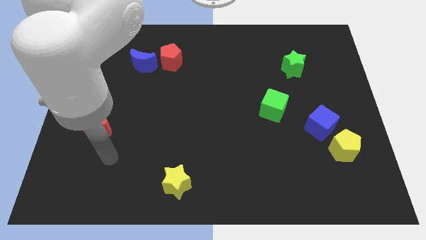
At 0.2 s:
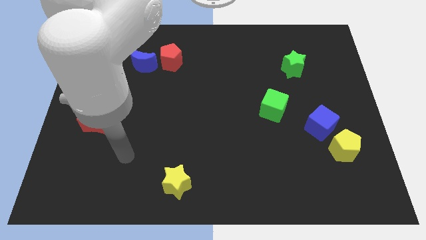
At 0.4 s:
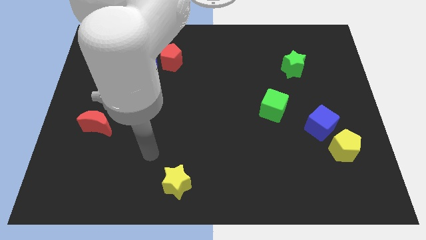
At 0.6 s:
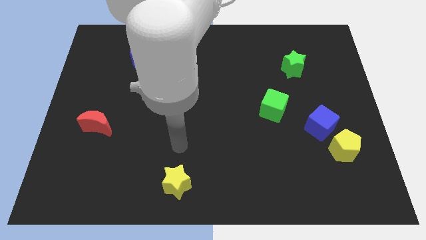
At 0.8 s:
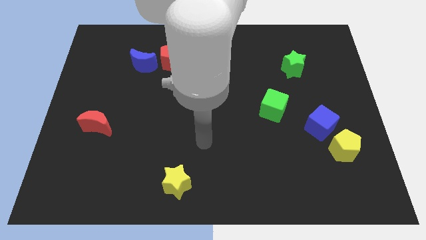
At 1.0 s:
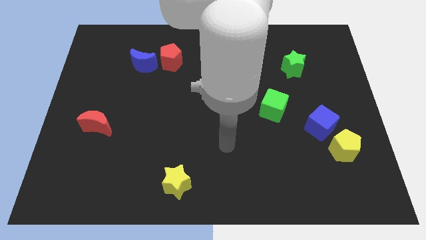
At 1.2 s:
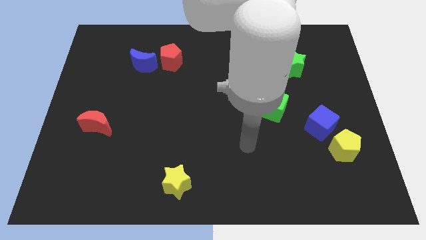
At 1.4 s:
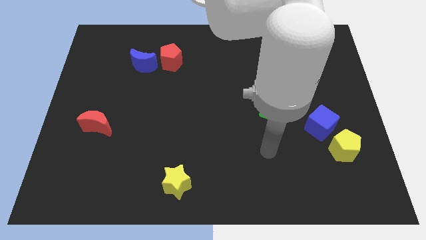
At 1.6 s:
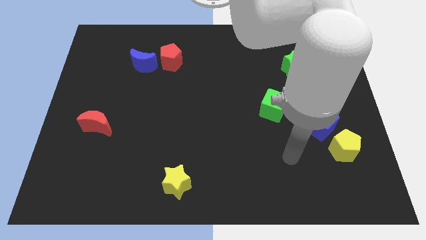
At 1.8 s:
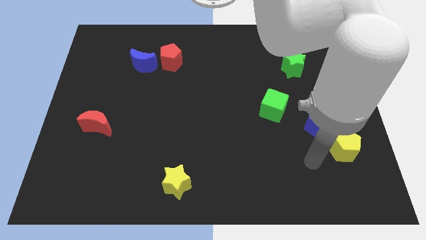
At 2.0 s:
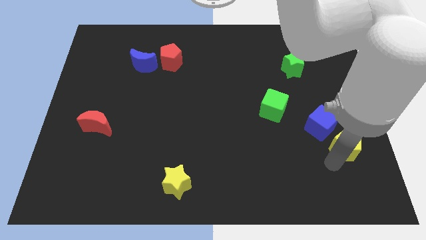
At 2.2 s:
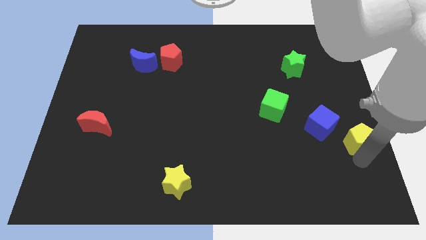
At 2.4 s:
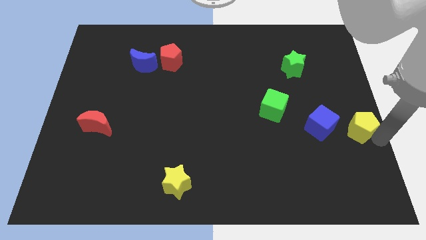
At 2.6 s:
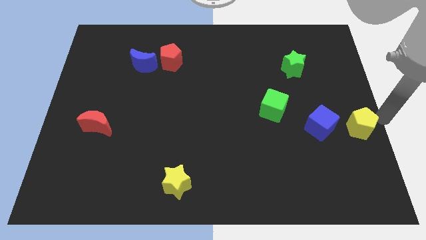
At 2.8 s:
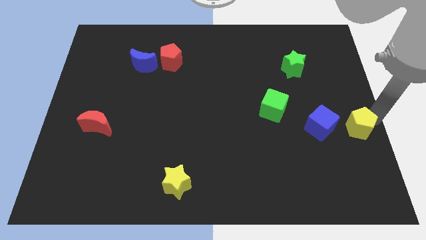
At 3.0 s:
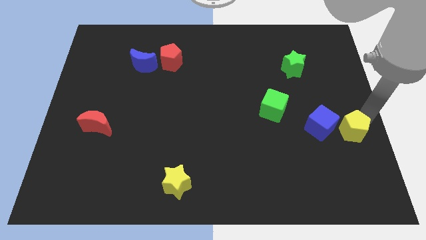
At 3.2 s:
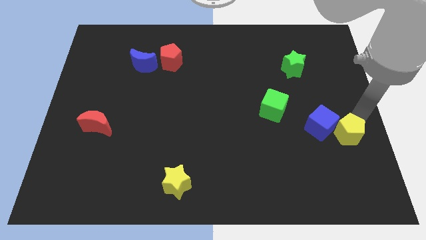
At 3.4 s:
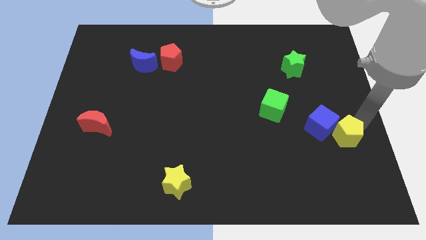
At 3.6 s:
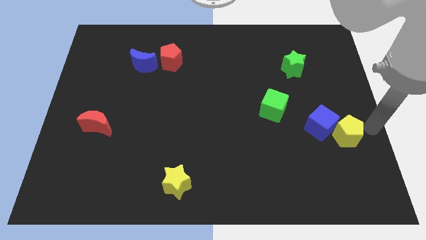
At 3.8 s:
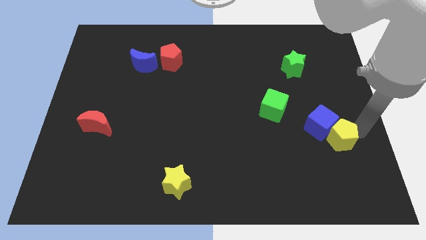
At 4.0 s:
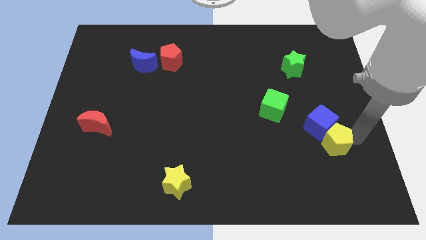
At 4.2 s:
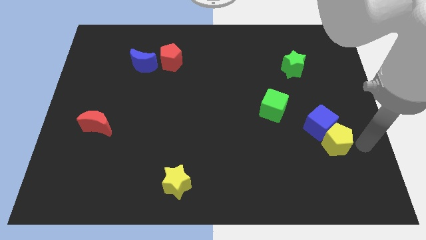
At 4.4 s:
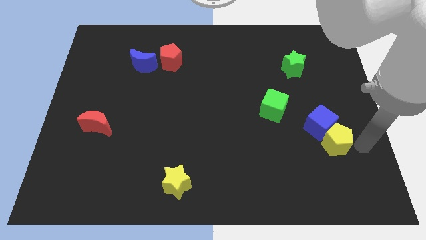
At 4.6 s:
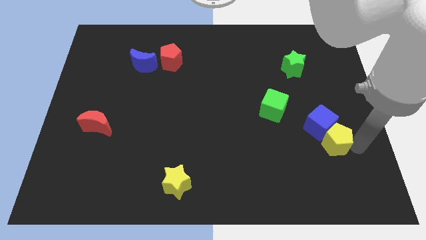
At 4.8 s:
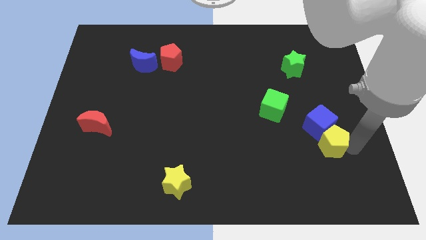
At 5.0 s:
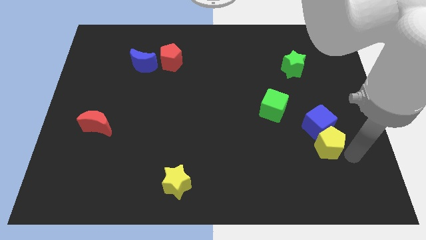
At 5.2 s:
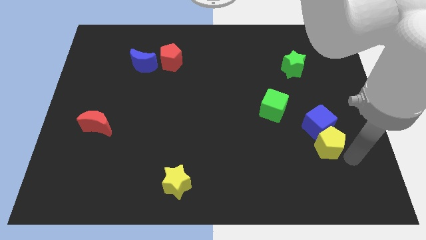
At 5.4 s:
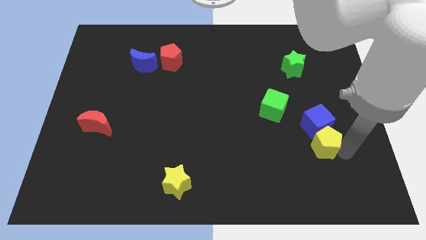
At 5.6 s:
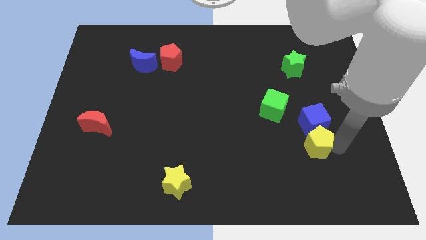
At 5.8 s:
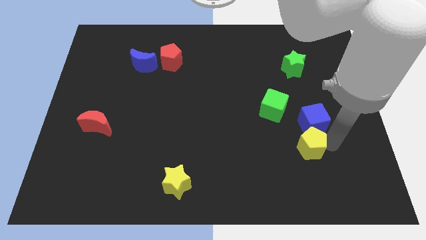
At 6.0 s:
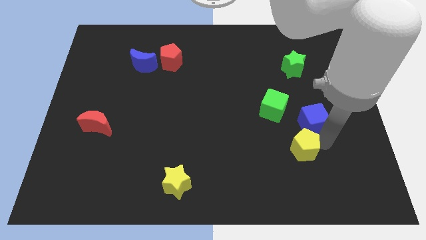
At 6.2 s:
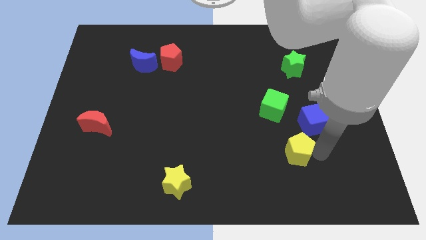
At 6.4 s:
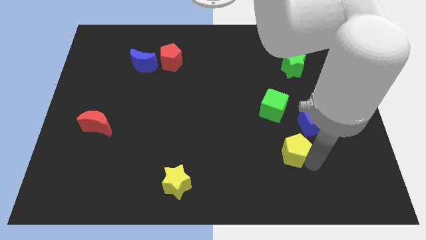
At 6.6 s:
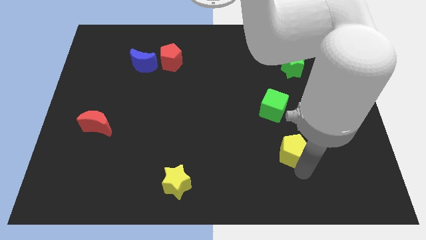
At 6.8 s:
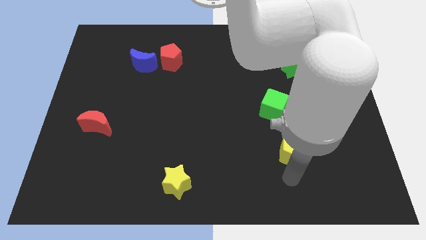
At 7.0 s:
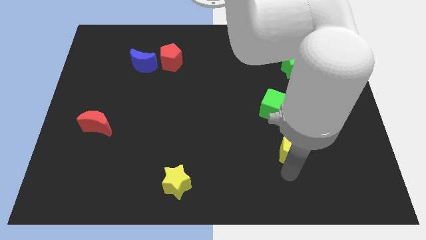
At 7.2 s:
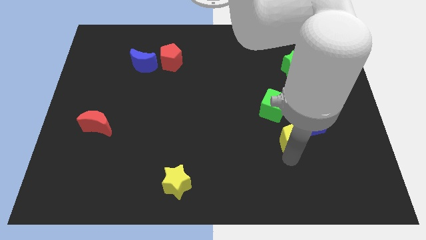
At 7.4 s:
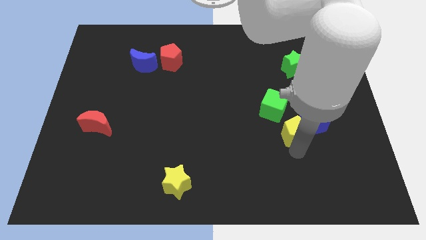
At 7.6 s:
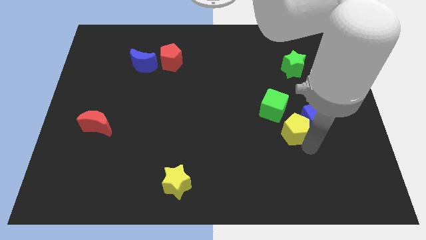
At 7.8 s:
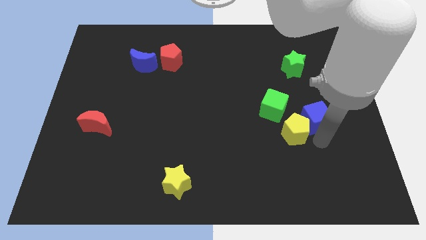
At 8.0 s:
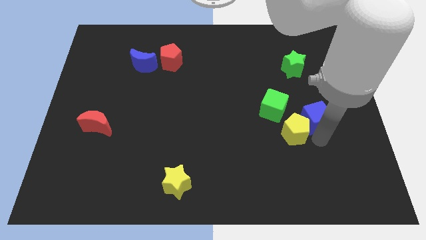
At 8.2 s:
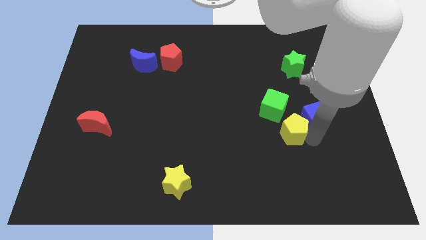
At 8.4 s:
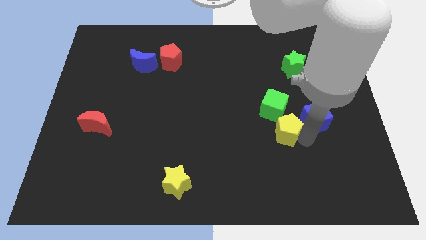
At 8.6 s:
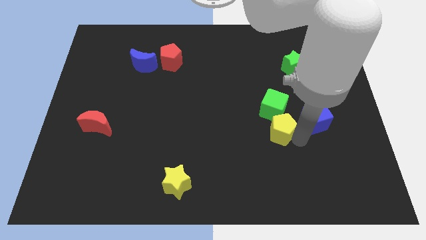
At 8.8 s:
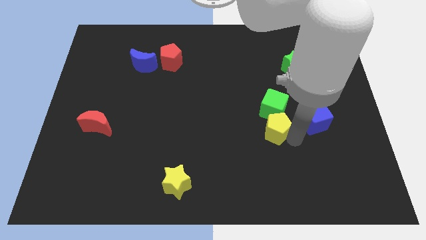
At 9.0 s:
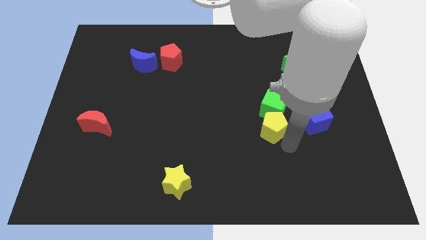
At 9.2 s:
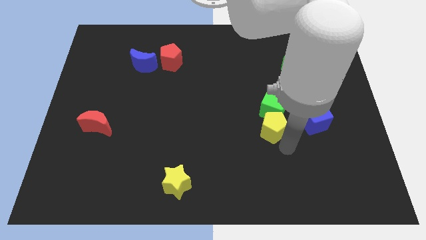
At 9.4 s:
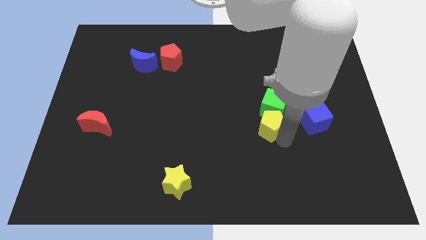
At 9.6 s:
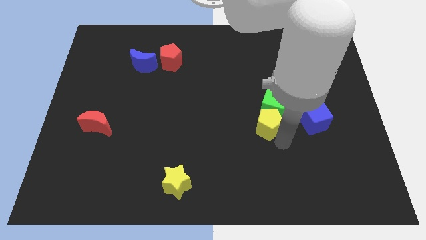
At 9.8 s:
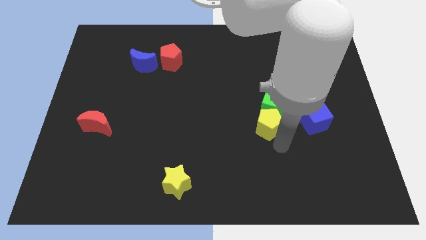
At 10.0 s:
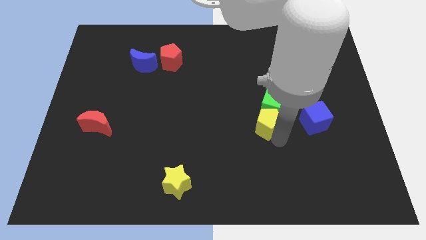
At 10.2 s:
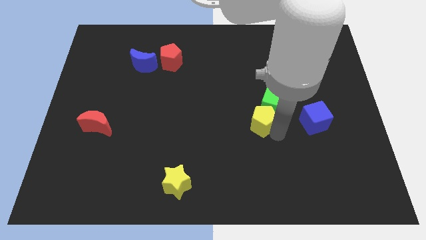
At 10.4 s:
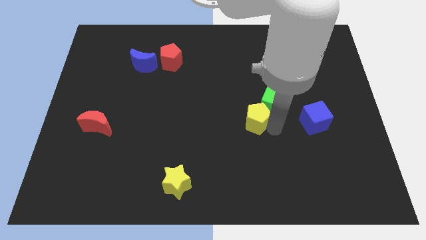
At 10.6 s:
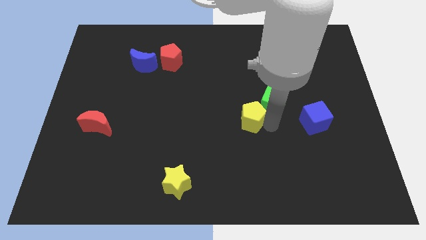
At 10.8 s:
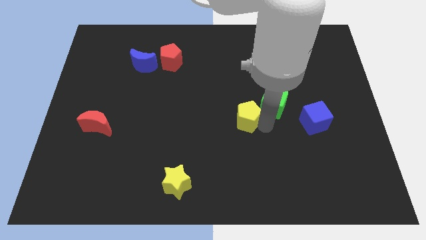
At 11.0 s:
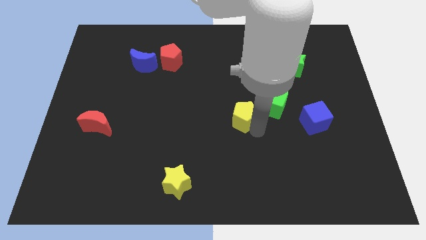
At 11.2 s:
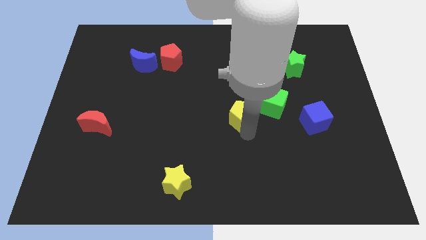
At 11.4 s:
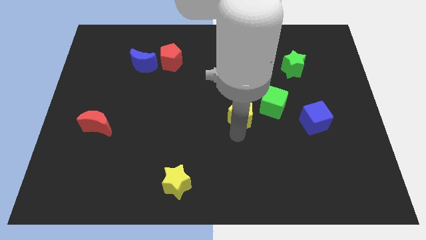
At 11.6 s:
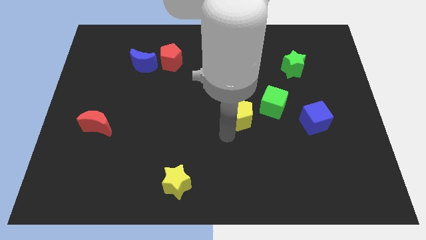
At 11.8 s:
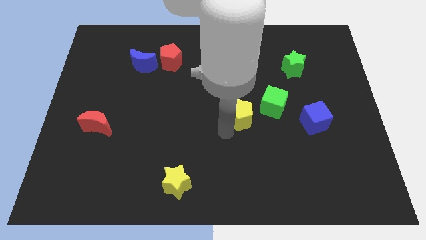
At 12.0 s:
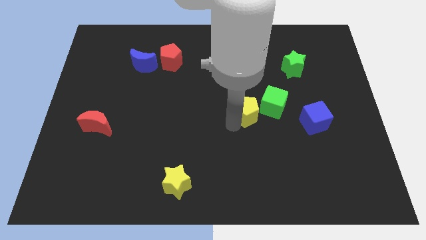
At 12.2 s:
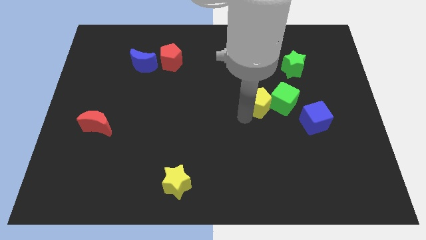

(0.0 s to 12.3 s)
push the yellow pentagon up and left

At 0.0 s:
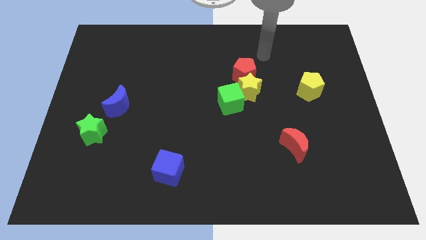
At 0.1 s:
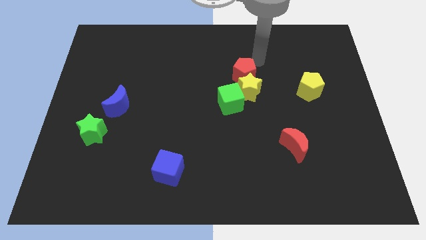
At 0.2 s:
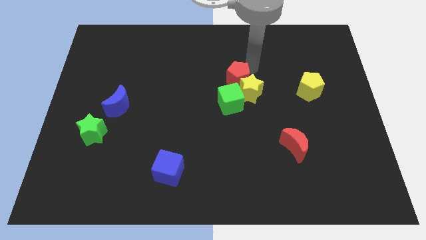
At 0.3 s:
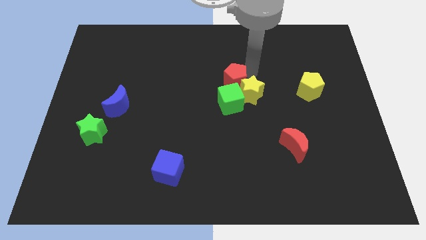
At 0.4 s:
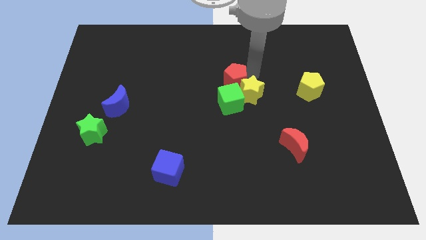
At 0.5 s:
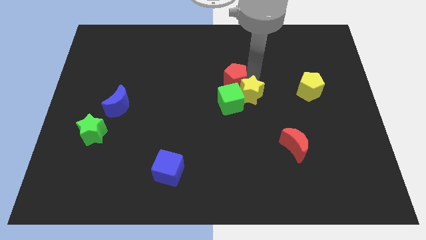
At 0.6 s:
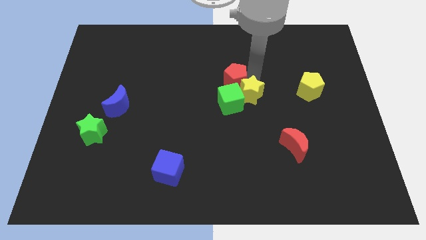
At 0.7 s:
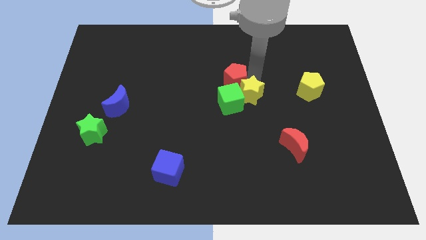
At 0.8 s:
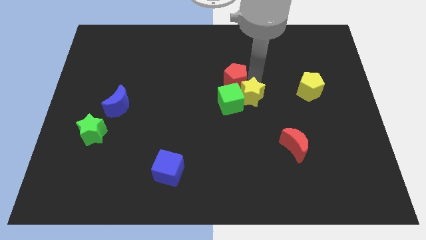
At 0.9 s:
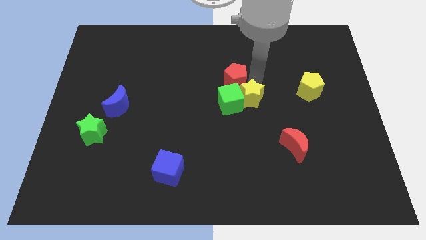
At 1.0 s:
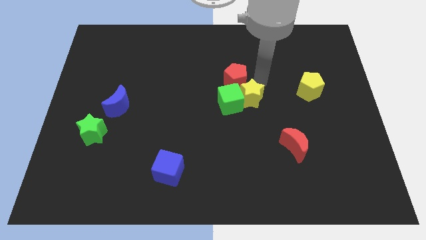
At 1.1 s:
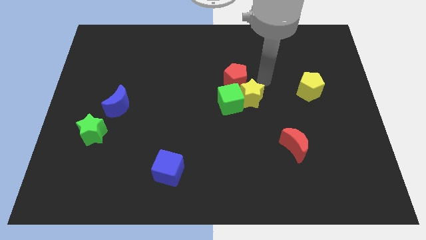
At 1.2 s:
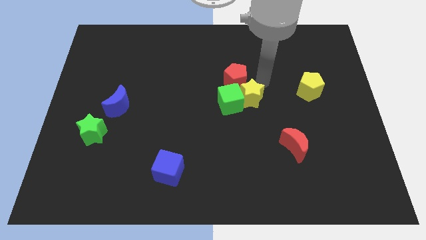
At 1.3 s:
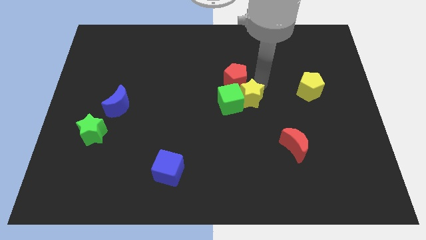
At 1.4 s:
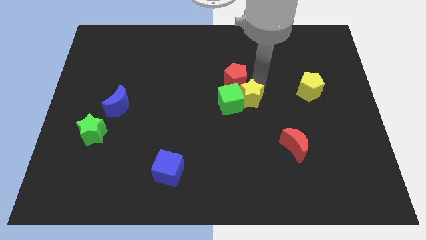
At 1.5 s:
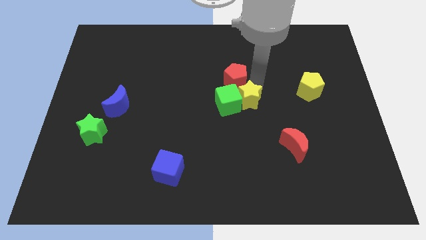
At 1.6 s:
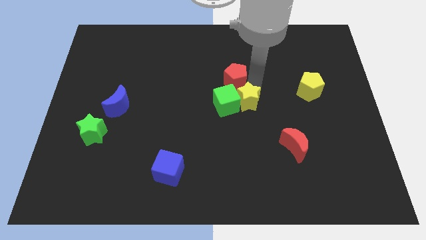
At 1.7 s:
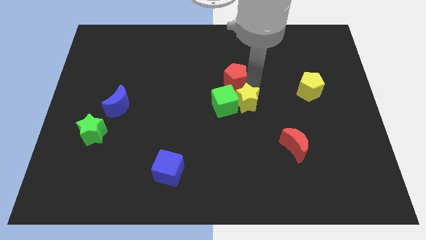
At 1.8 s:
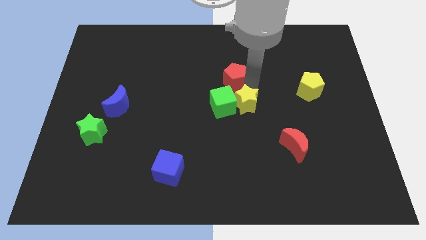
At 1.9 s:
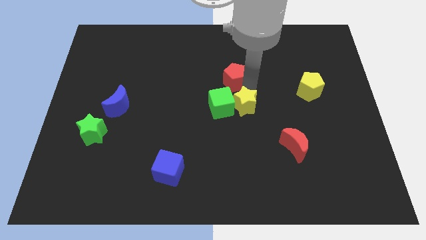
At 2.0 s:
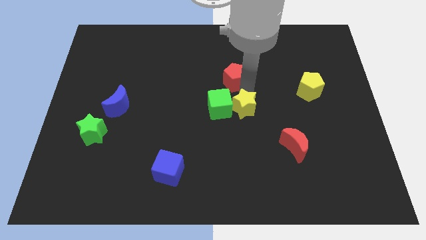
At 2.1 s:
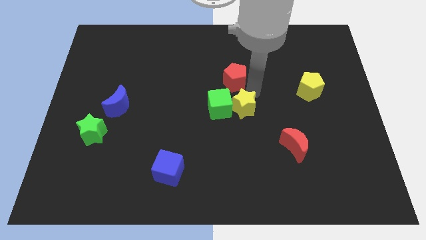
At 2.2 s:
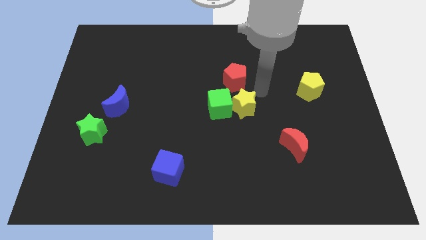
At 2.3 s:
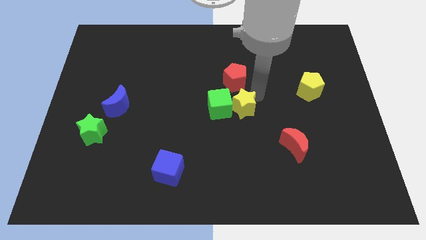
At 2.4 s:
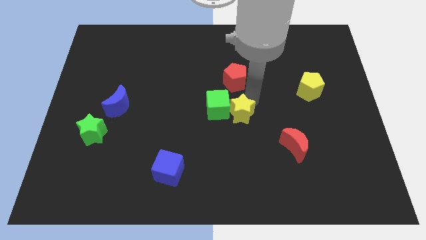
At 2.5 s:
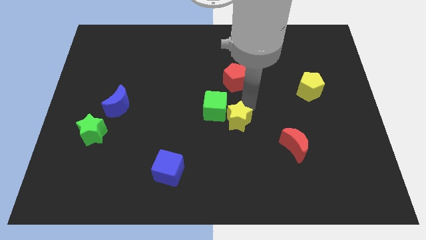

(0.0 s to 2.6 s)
push the yellow star diagonally downwards and to the left a little
